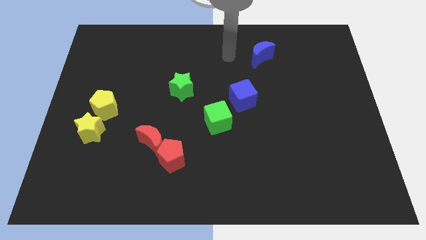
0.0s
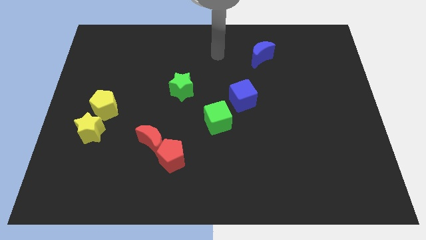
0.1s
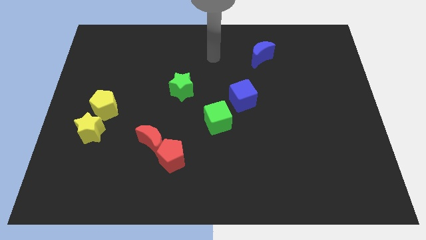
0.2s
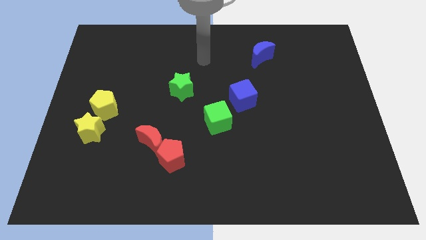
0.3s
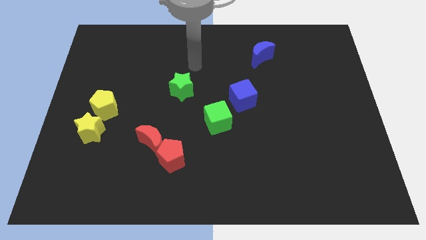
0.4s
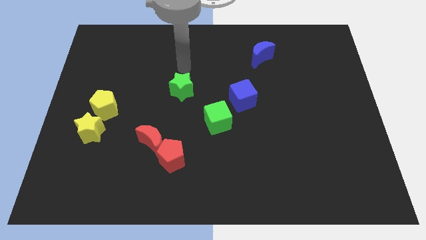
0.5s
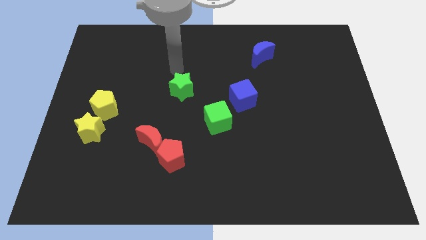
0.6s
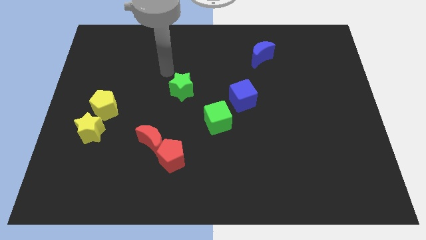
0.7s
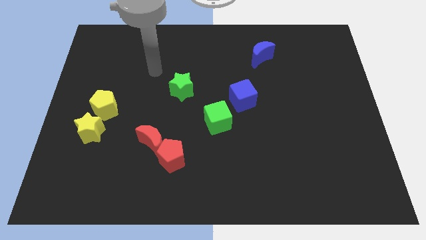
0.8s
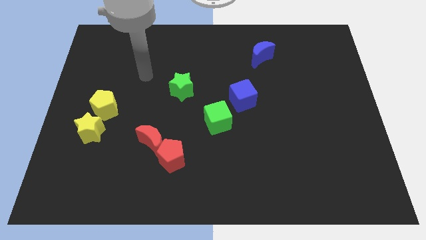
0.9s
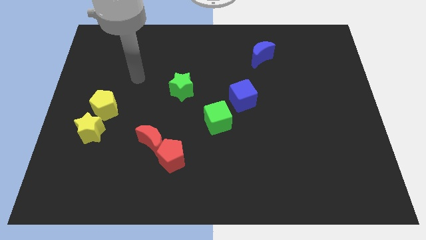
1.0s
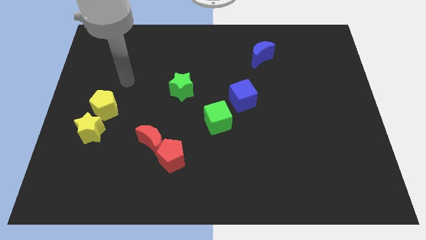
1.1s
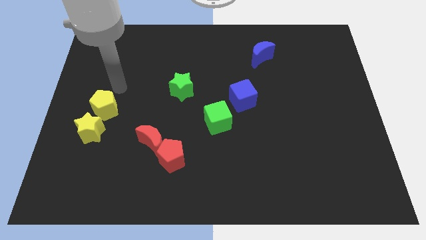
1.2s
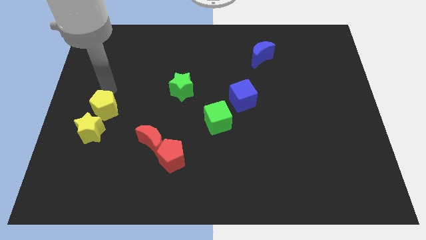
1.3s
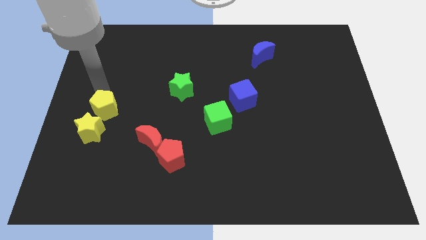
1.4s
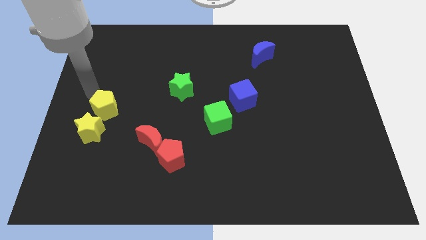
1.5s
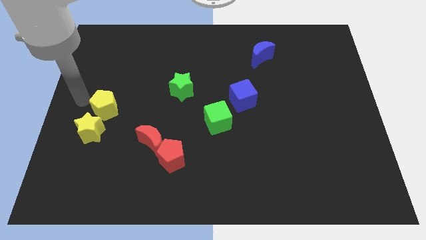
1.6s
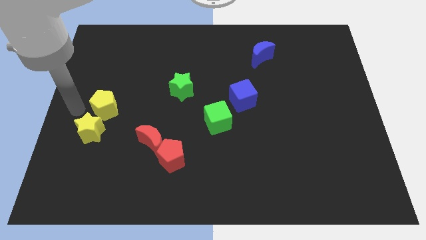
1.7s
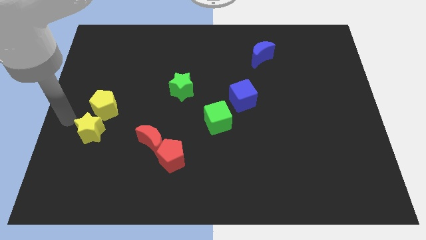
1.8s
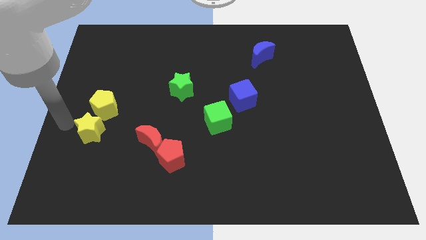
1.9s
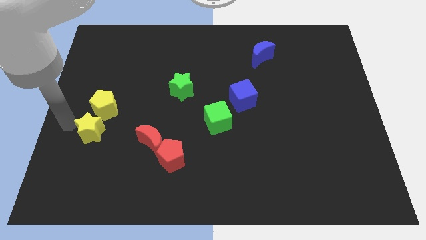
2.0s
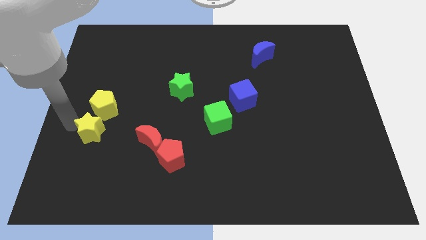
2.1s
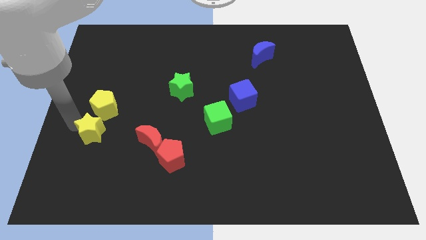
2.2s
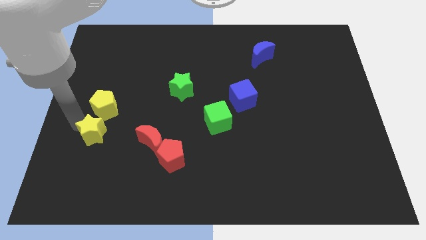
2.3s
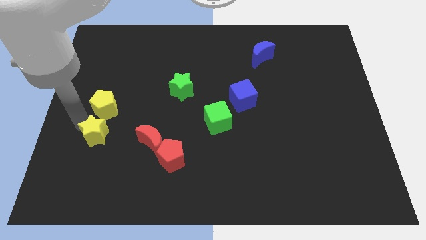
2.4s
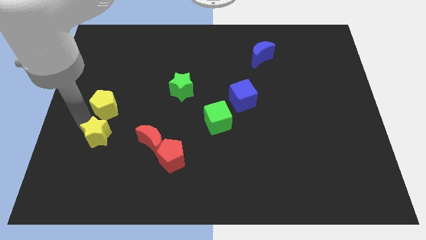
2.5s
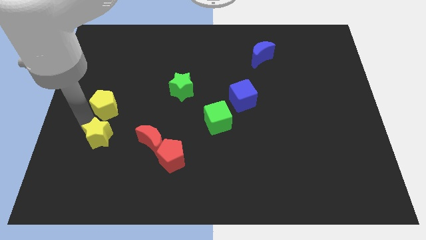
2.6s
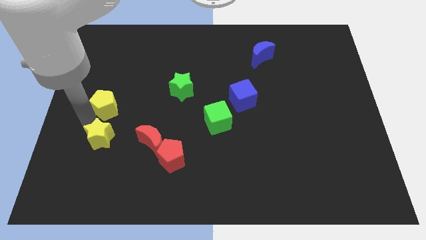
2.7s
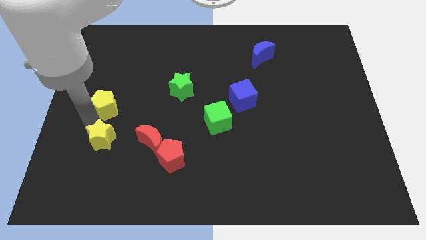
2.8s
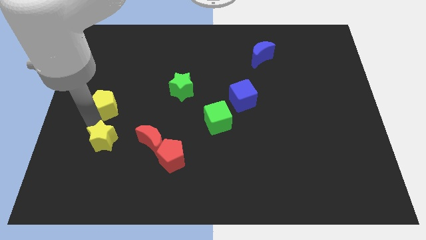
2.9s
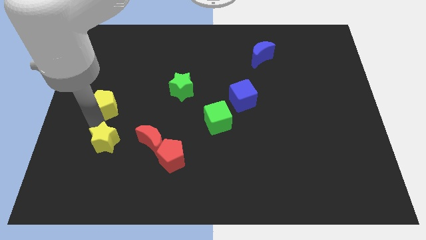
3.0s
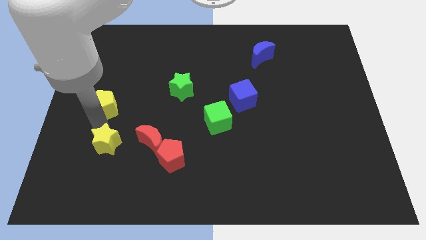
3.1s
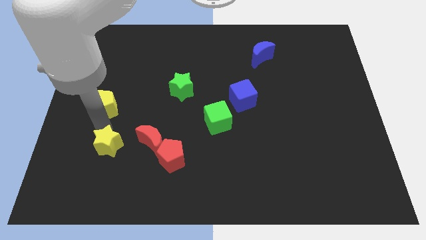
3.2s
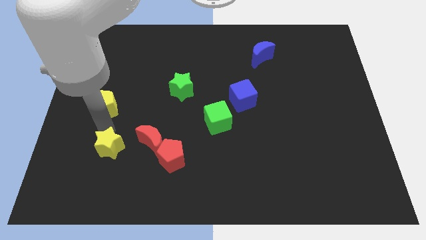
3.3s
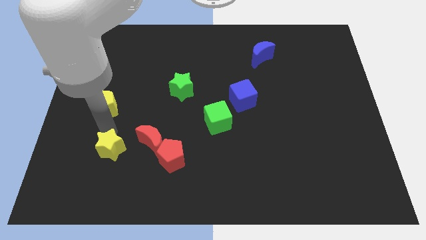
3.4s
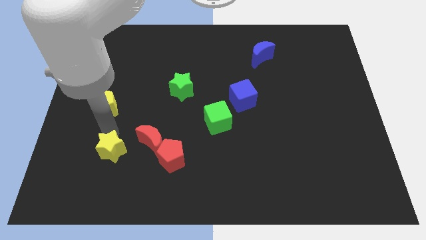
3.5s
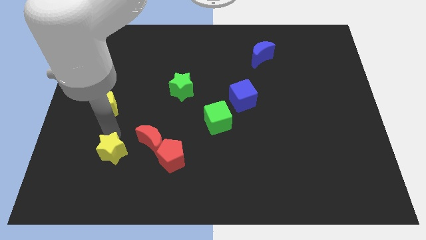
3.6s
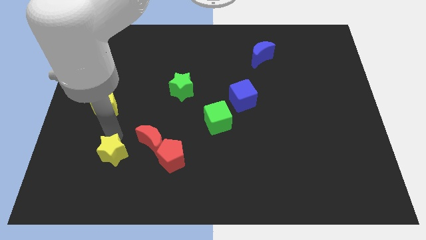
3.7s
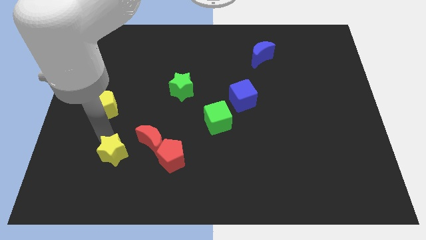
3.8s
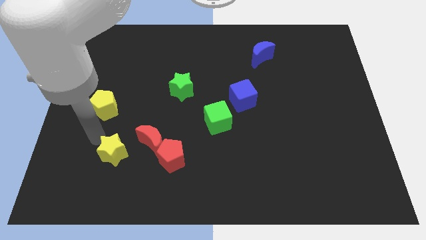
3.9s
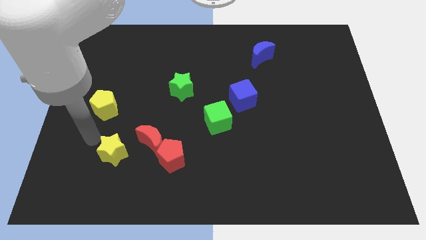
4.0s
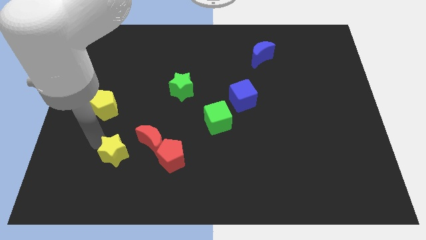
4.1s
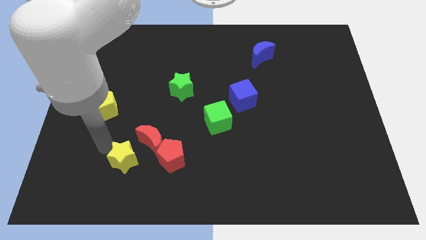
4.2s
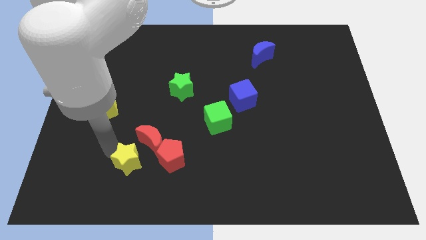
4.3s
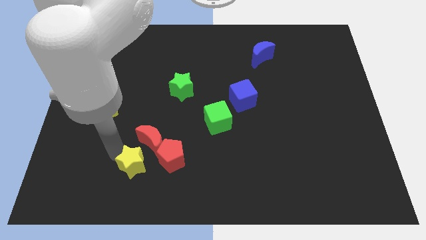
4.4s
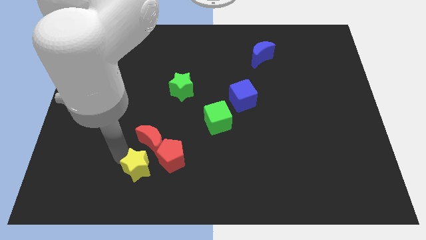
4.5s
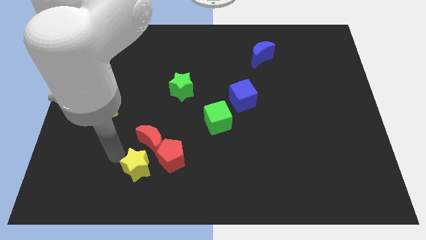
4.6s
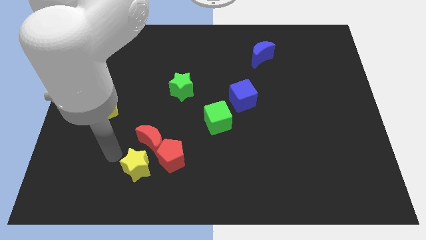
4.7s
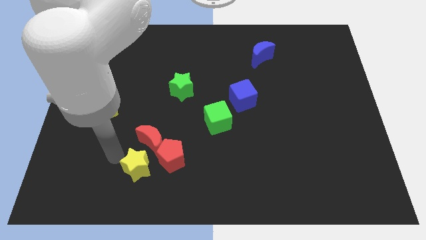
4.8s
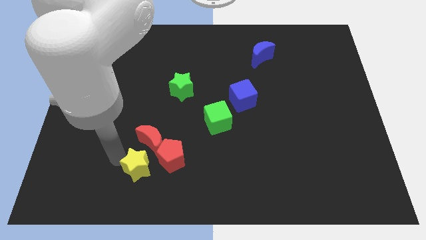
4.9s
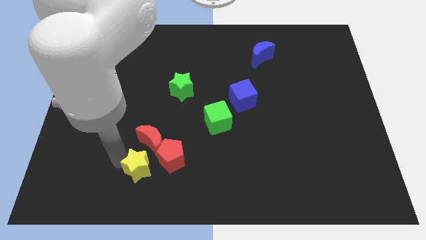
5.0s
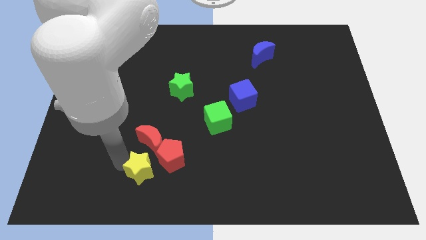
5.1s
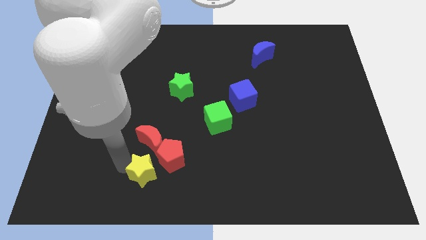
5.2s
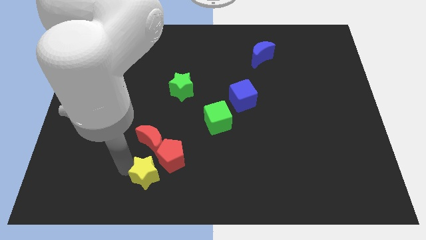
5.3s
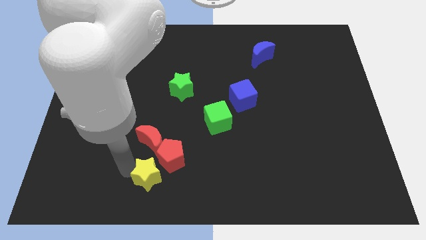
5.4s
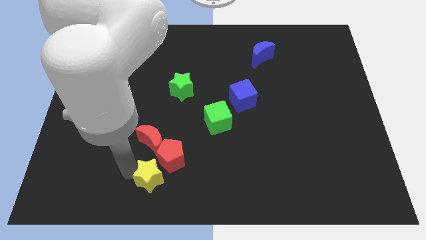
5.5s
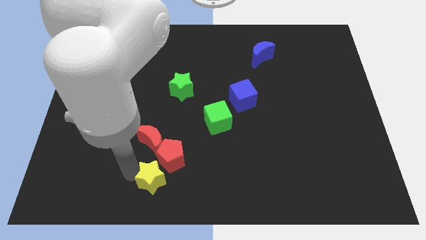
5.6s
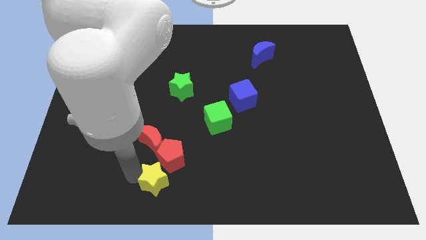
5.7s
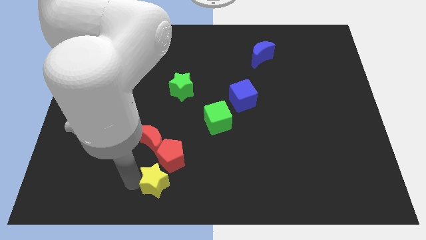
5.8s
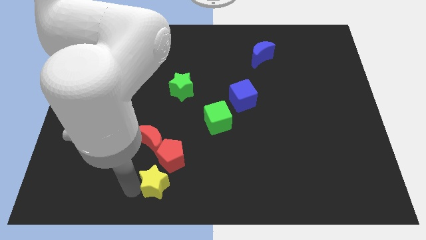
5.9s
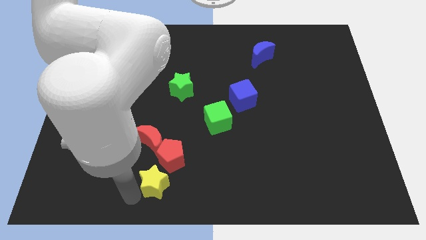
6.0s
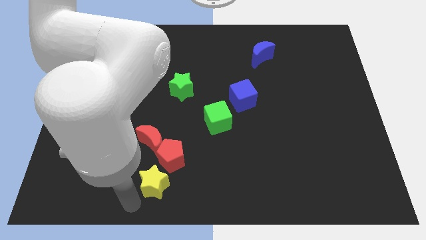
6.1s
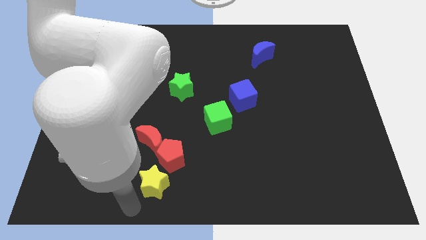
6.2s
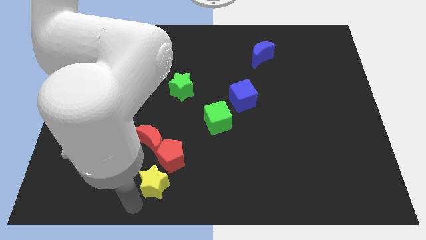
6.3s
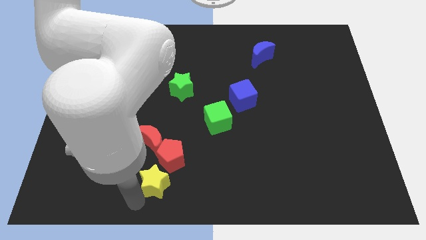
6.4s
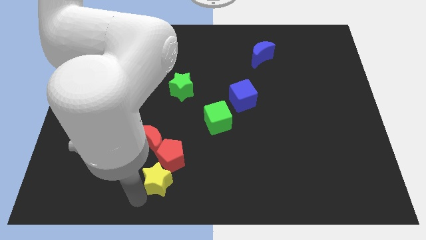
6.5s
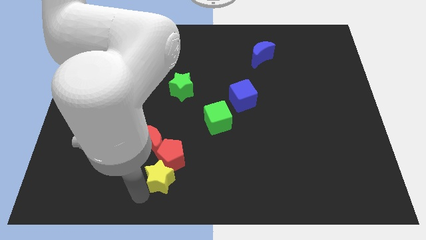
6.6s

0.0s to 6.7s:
put the yellow star to the bottom right side of the red moon

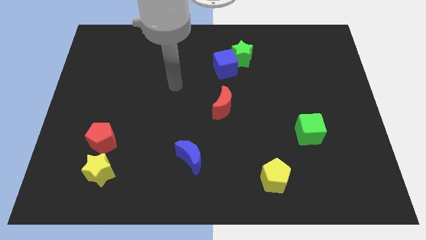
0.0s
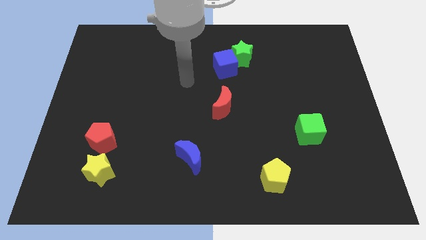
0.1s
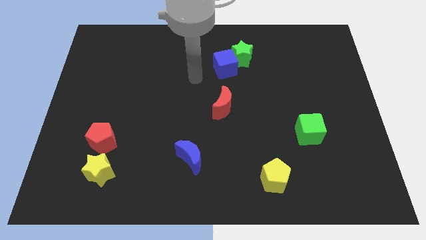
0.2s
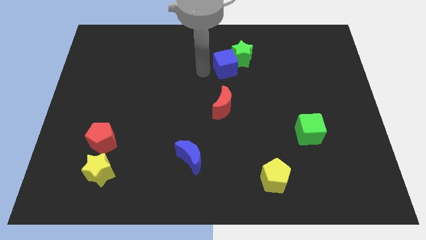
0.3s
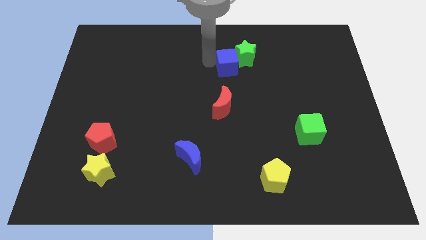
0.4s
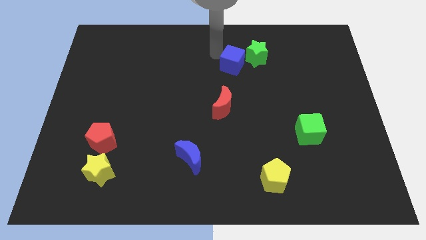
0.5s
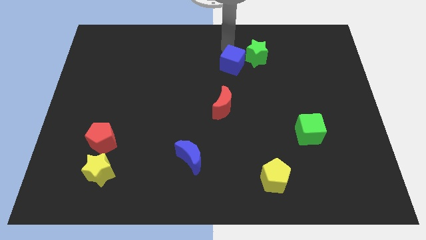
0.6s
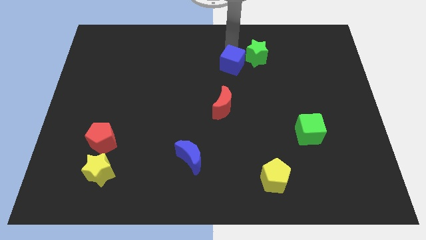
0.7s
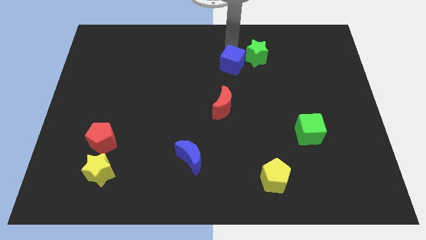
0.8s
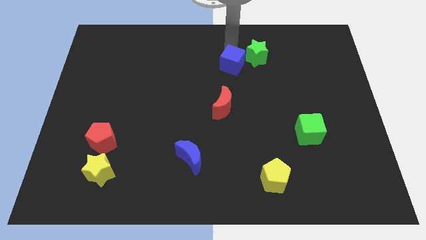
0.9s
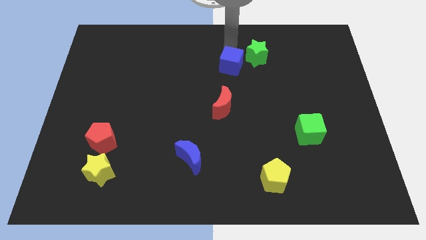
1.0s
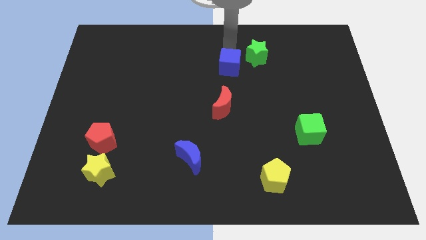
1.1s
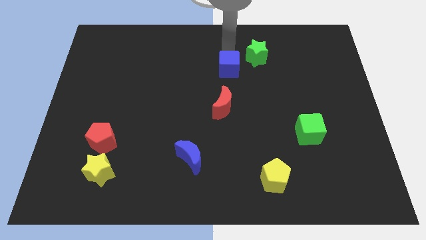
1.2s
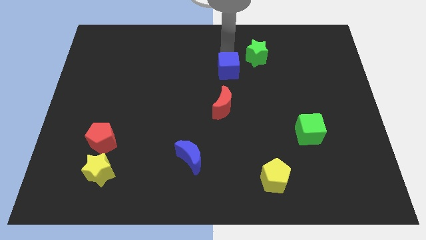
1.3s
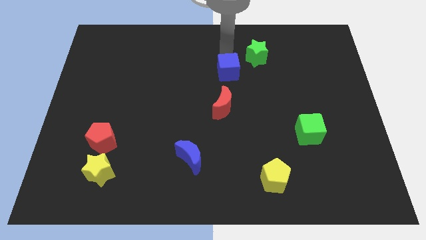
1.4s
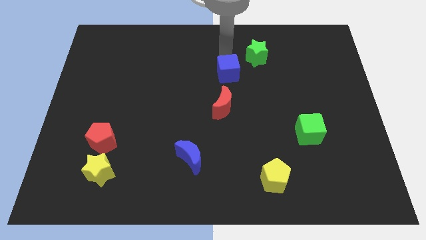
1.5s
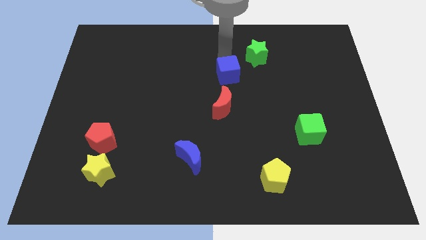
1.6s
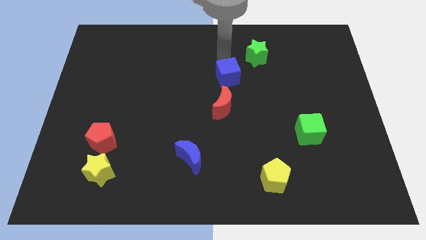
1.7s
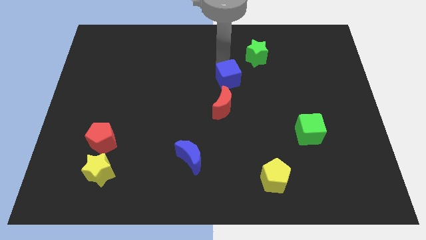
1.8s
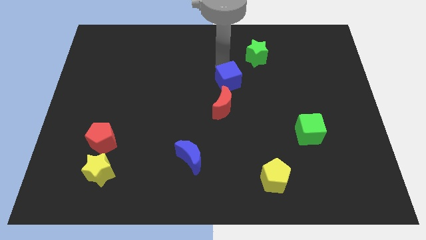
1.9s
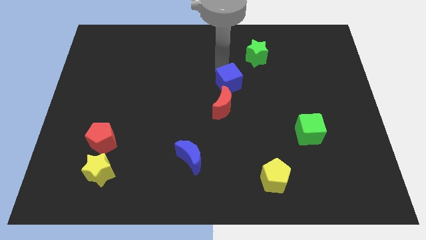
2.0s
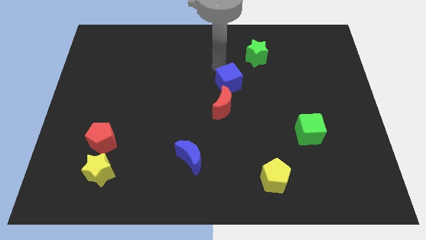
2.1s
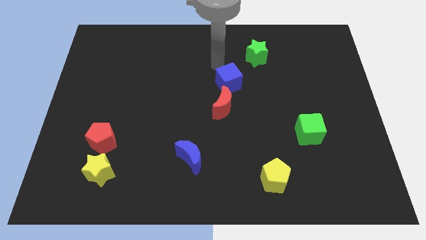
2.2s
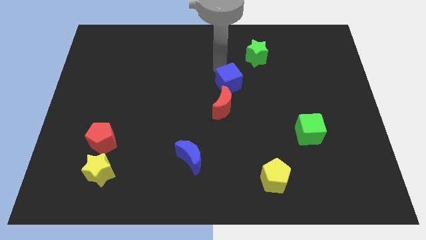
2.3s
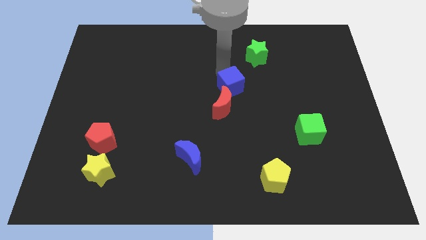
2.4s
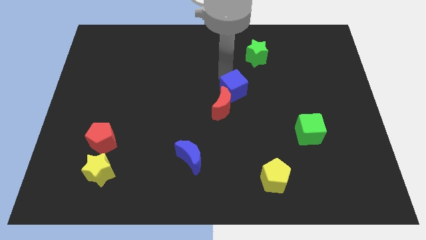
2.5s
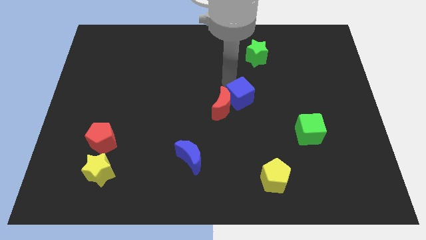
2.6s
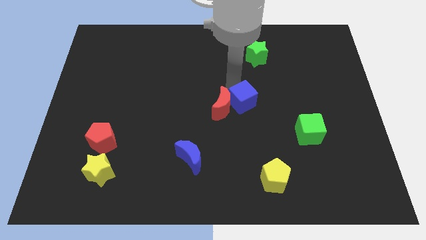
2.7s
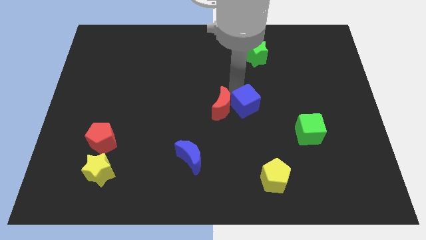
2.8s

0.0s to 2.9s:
slide the blue cube to the bottom right of the red moon
